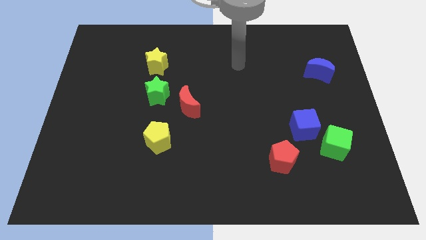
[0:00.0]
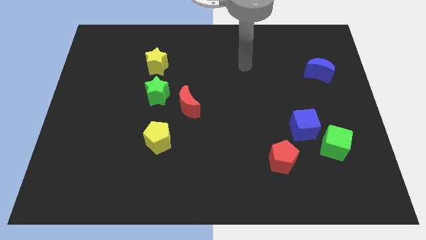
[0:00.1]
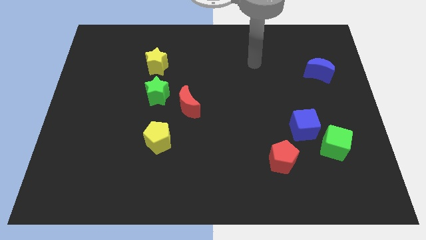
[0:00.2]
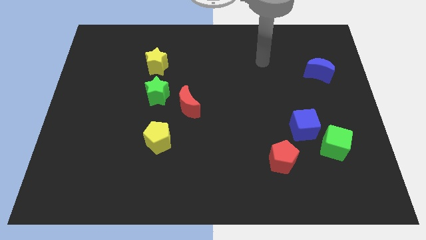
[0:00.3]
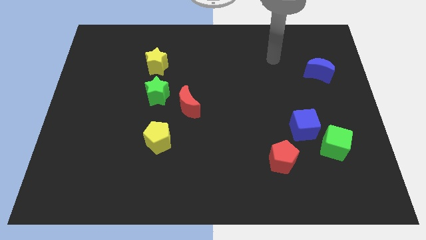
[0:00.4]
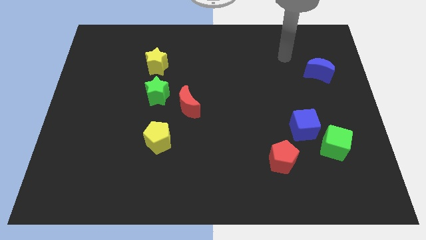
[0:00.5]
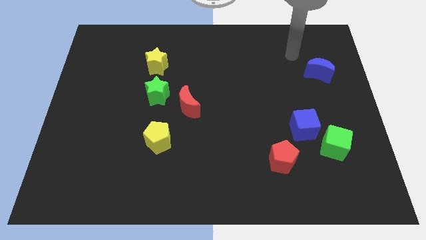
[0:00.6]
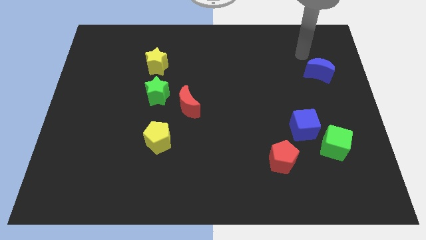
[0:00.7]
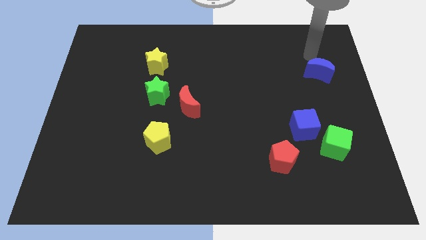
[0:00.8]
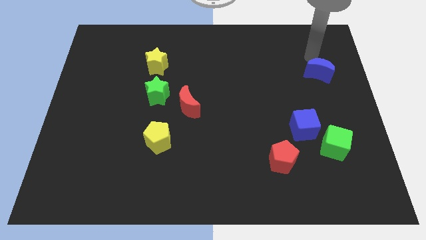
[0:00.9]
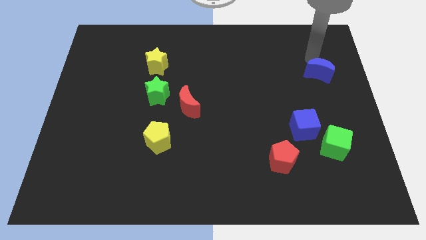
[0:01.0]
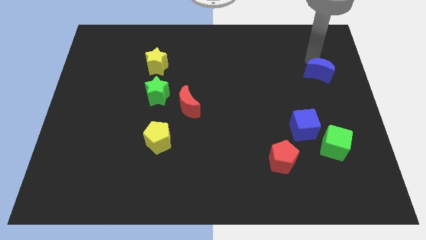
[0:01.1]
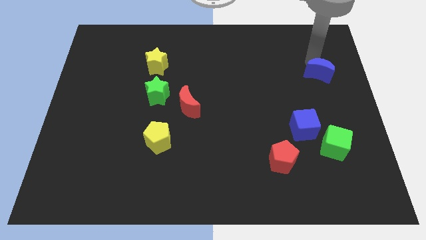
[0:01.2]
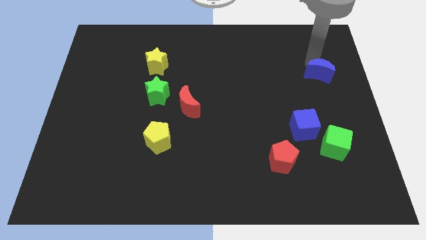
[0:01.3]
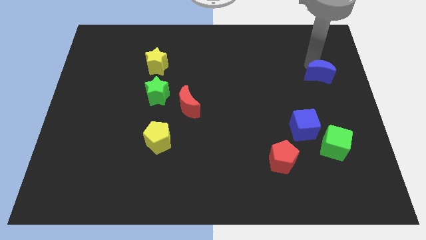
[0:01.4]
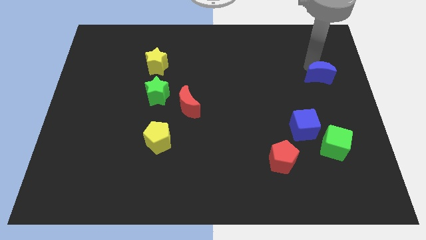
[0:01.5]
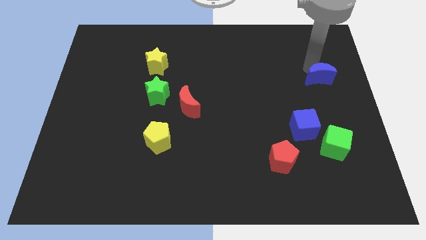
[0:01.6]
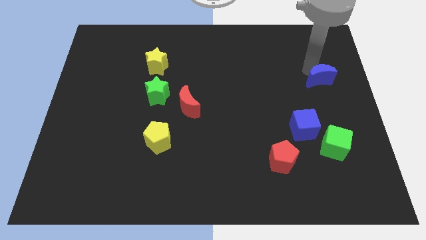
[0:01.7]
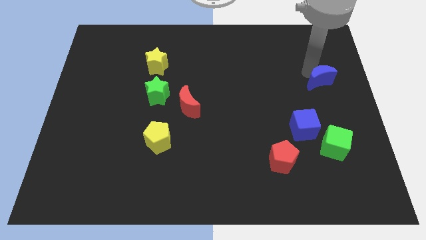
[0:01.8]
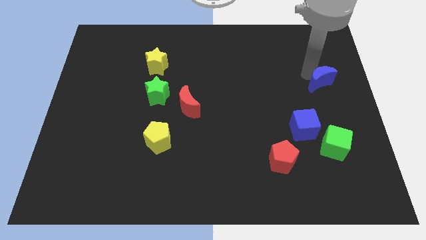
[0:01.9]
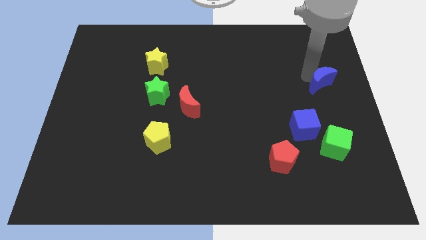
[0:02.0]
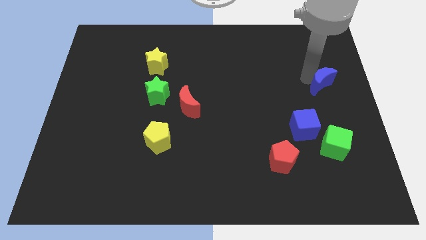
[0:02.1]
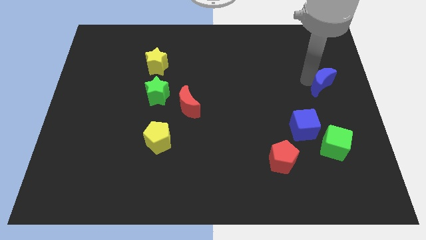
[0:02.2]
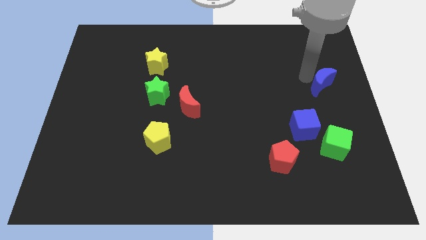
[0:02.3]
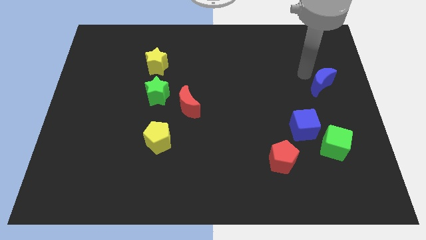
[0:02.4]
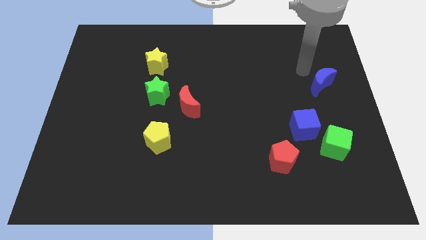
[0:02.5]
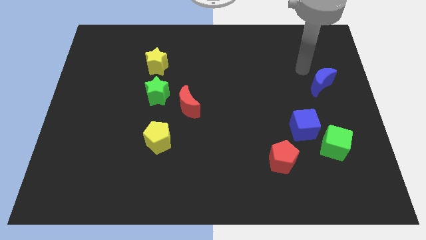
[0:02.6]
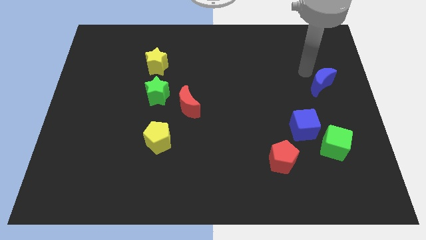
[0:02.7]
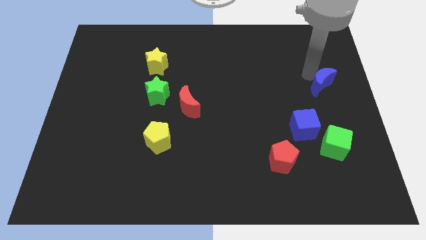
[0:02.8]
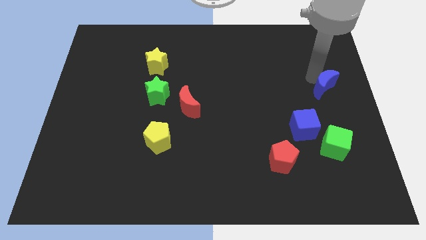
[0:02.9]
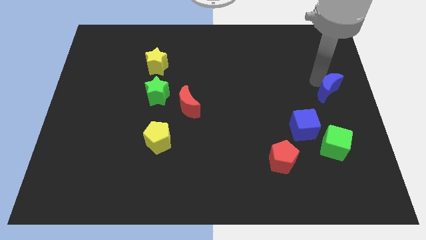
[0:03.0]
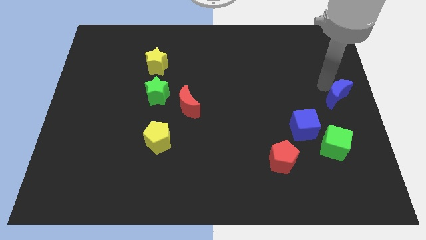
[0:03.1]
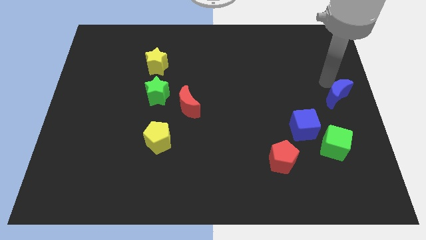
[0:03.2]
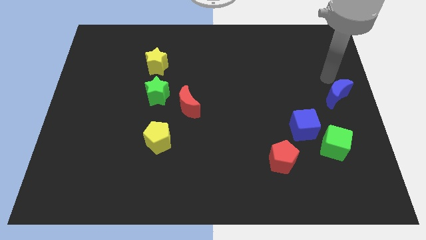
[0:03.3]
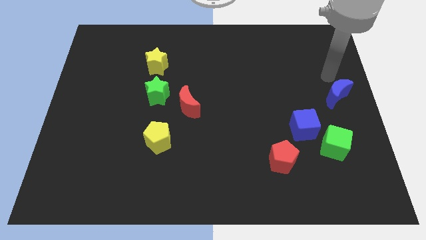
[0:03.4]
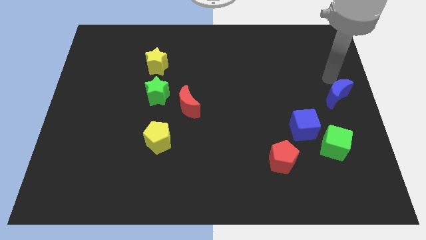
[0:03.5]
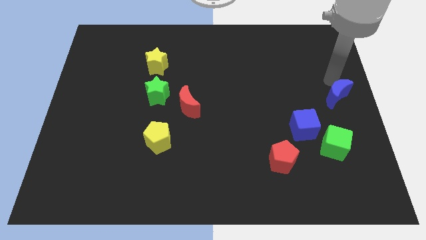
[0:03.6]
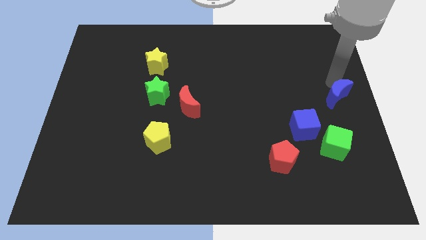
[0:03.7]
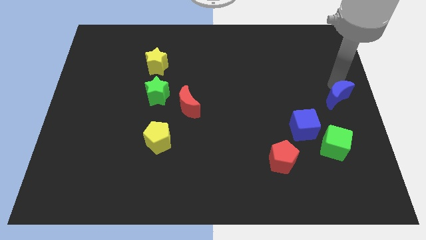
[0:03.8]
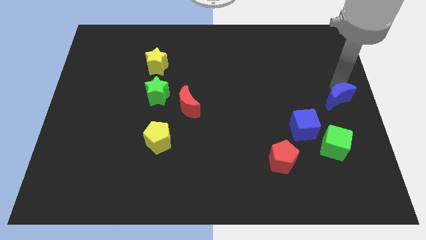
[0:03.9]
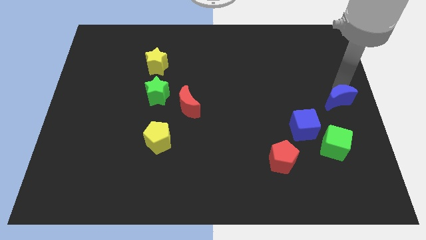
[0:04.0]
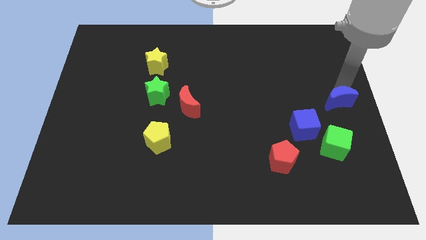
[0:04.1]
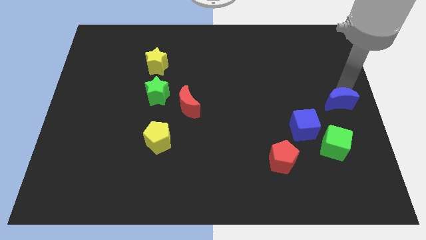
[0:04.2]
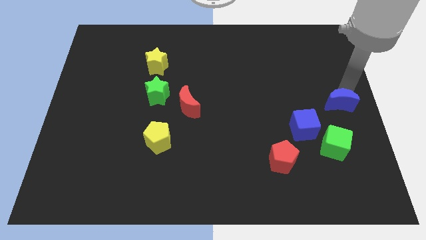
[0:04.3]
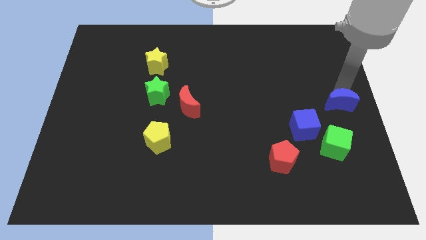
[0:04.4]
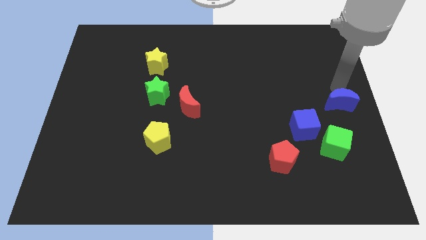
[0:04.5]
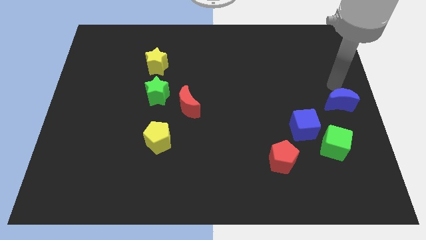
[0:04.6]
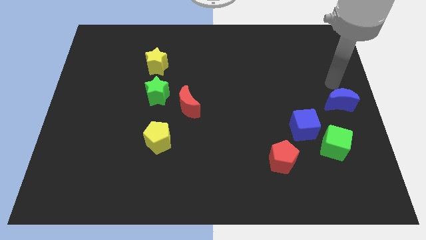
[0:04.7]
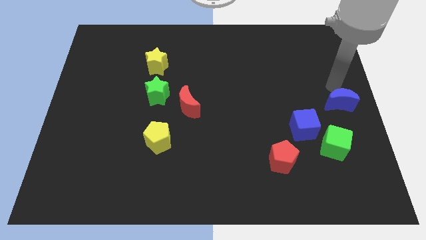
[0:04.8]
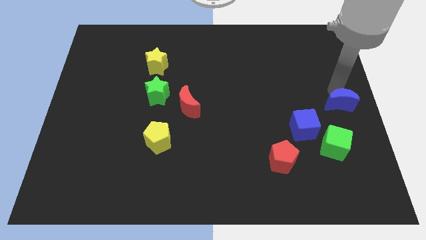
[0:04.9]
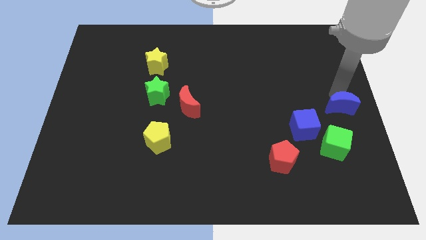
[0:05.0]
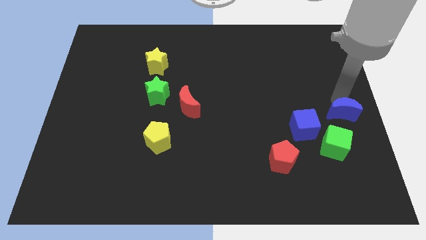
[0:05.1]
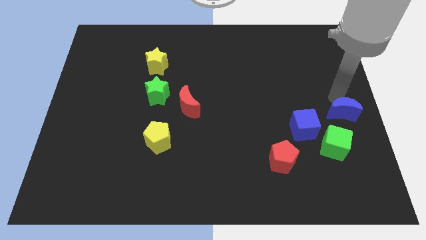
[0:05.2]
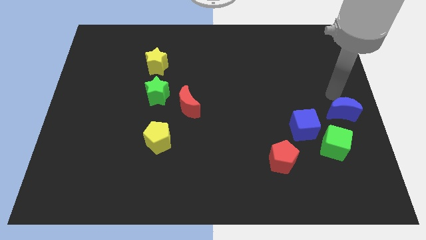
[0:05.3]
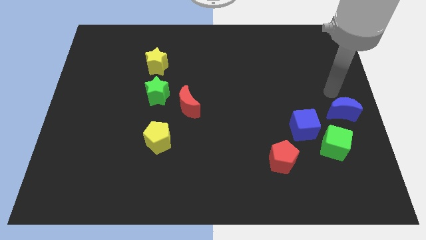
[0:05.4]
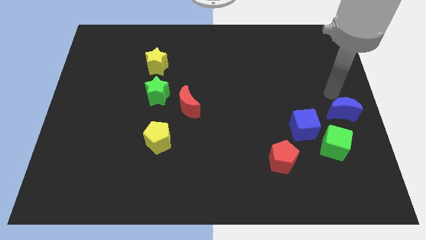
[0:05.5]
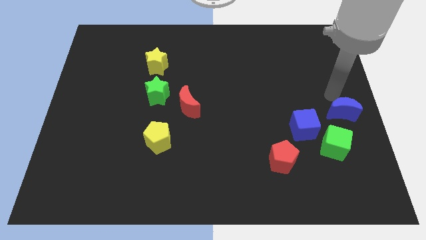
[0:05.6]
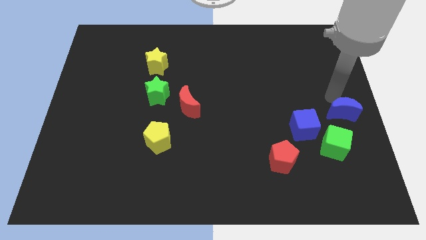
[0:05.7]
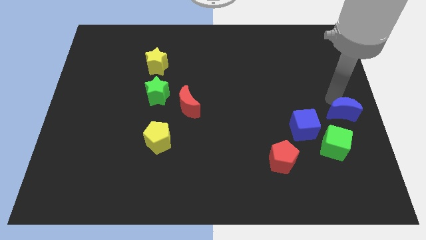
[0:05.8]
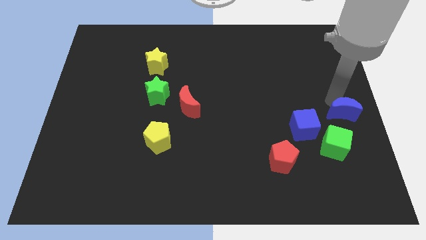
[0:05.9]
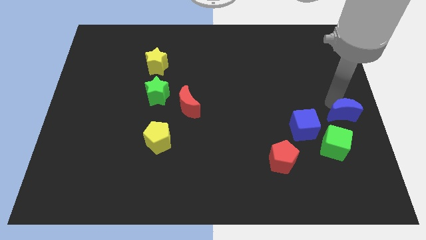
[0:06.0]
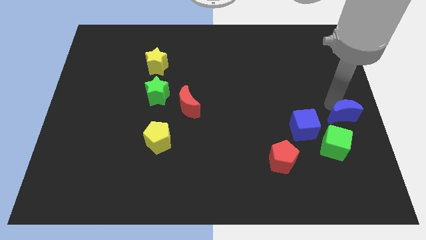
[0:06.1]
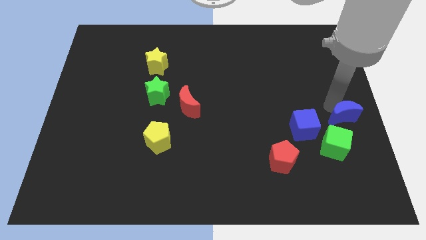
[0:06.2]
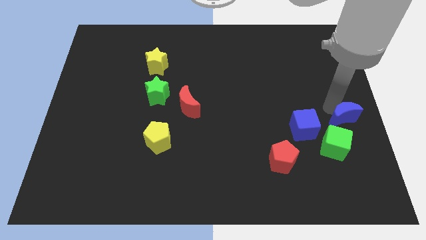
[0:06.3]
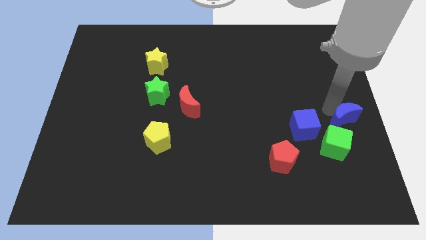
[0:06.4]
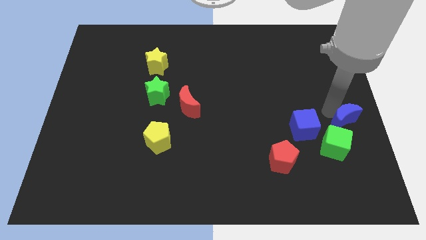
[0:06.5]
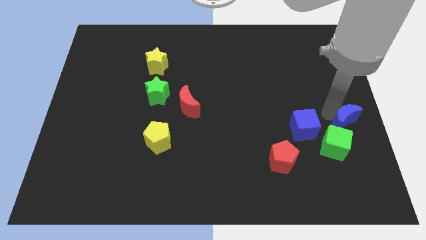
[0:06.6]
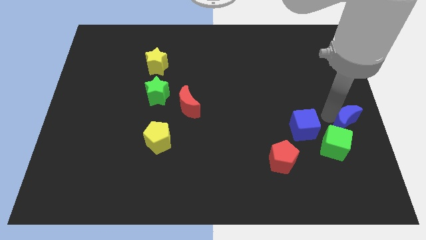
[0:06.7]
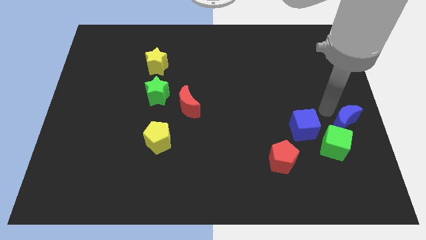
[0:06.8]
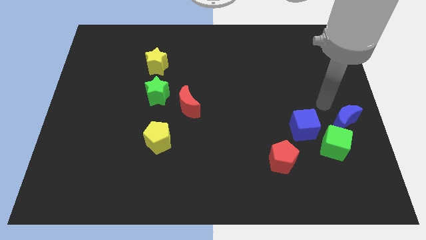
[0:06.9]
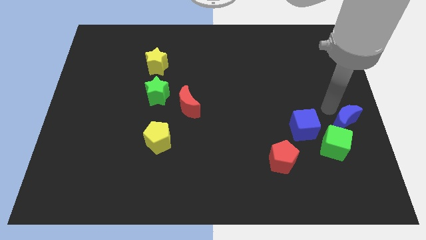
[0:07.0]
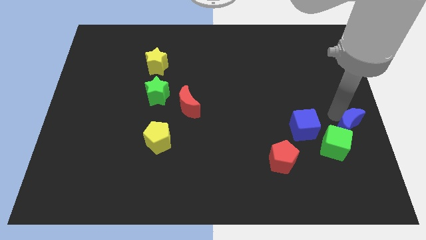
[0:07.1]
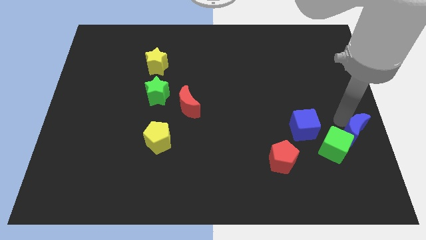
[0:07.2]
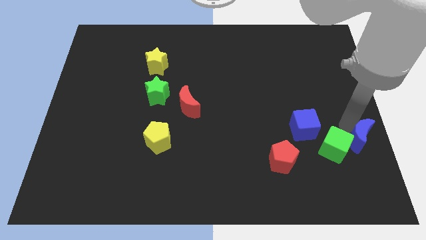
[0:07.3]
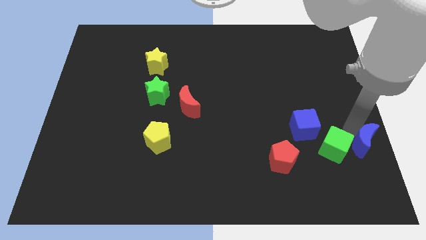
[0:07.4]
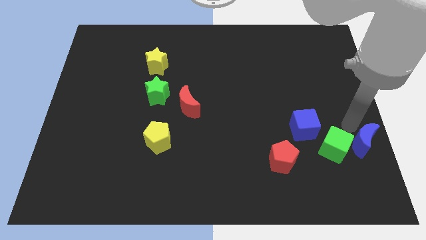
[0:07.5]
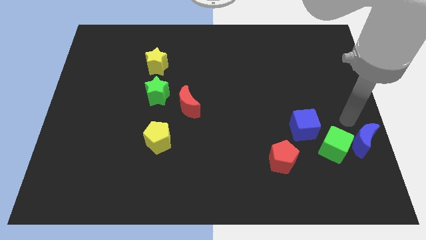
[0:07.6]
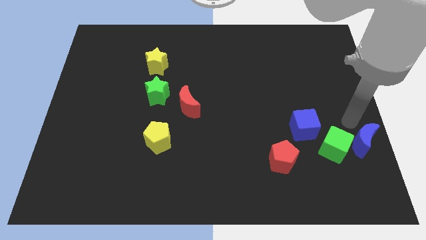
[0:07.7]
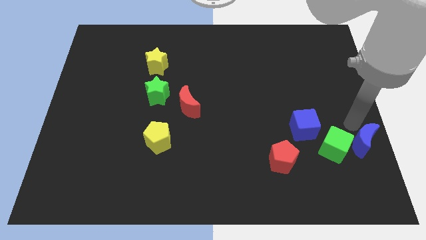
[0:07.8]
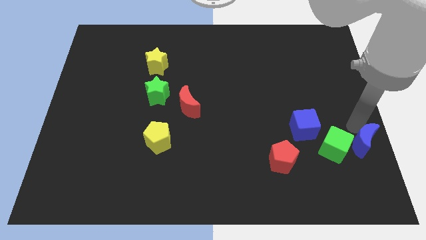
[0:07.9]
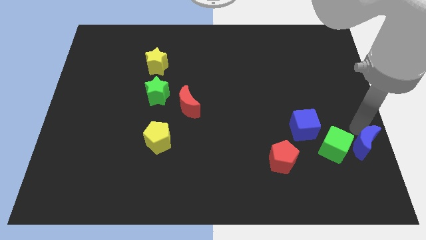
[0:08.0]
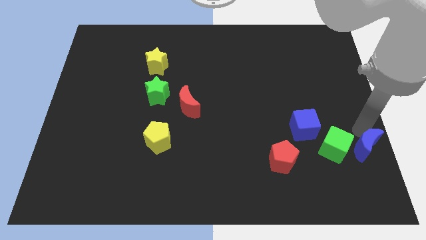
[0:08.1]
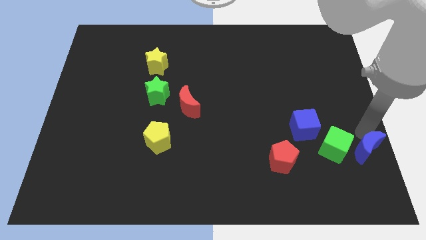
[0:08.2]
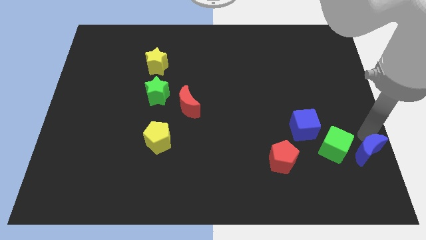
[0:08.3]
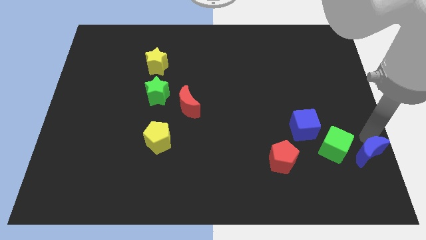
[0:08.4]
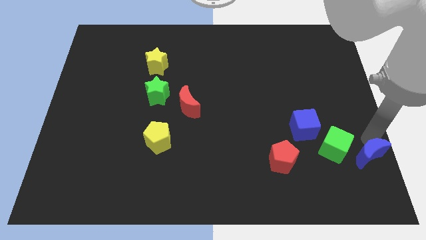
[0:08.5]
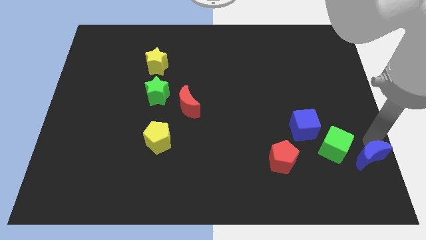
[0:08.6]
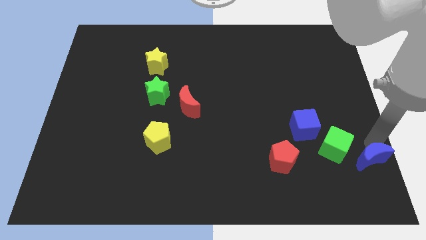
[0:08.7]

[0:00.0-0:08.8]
move the blue moon to the bottom right
